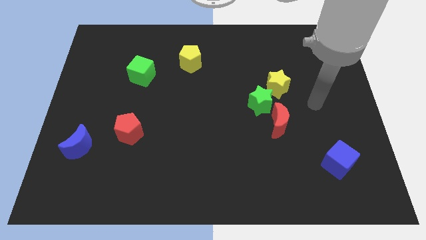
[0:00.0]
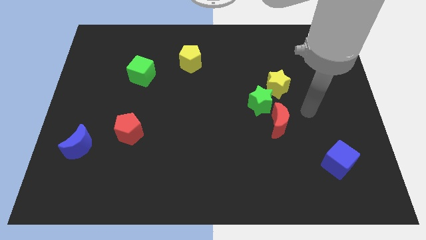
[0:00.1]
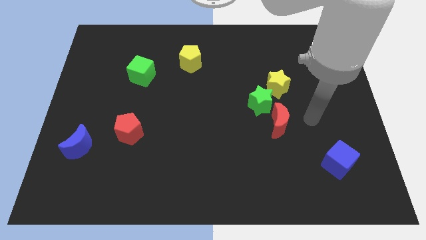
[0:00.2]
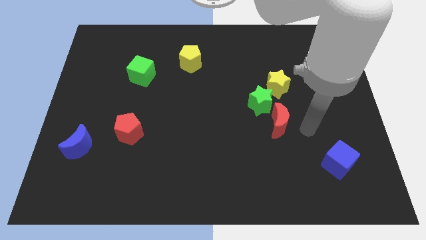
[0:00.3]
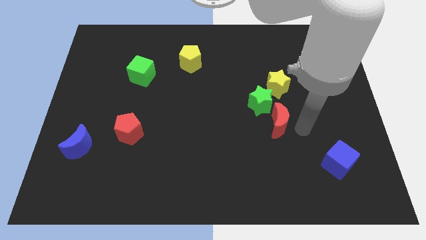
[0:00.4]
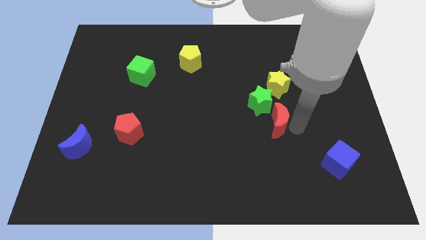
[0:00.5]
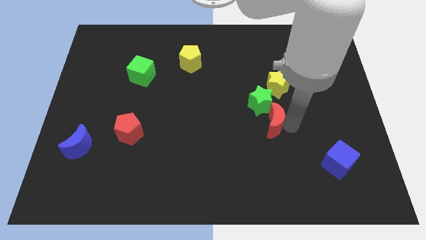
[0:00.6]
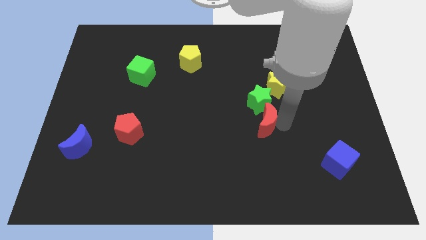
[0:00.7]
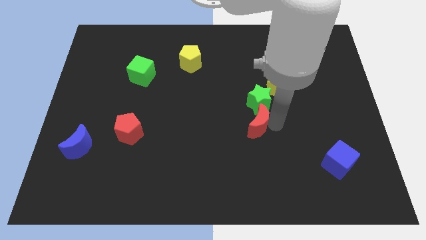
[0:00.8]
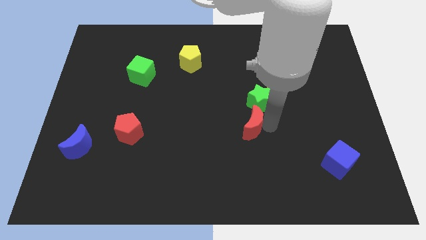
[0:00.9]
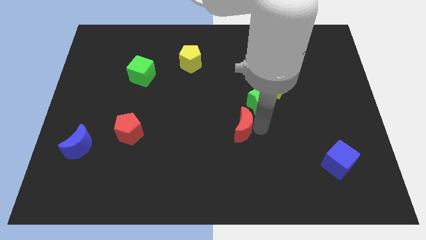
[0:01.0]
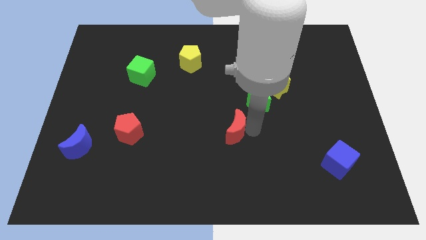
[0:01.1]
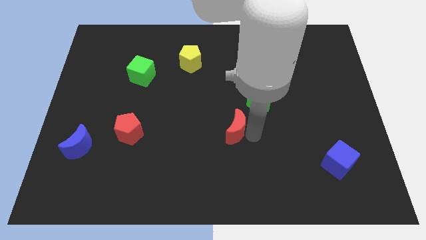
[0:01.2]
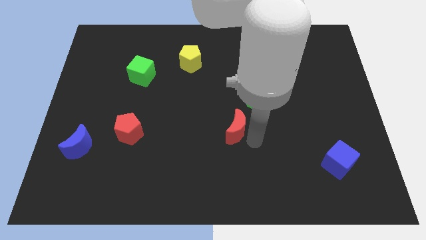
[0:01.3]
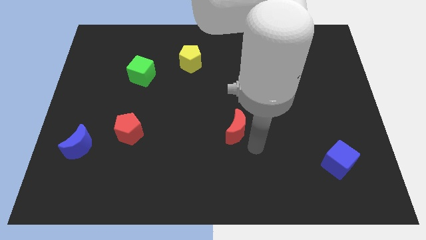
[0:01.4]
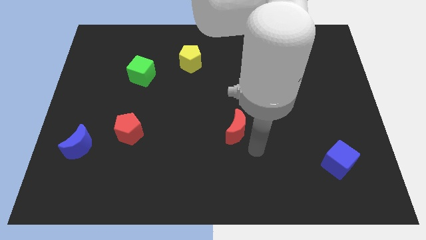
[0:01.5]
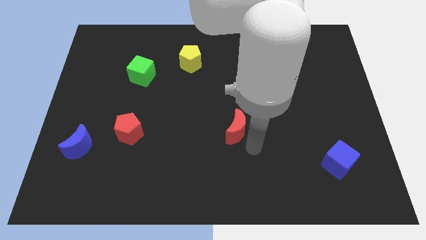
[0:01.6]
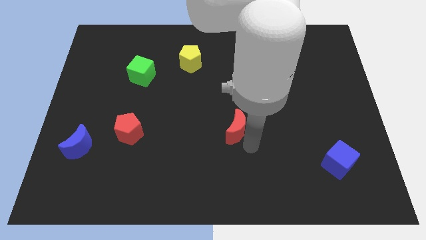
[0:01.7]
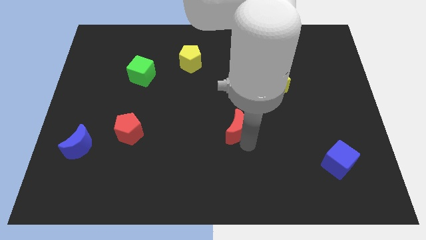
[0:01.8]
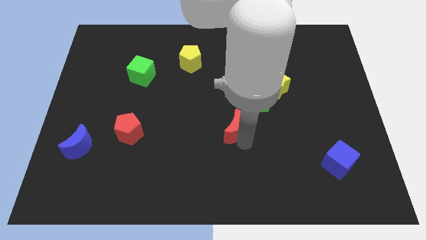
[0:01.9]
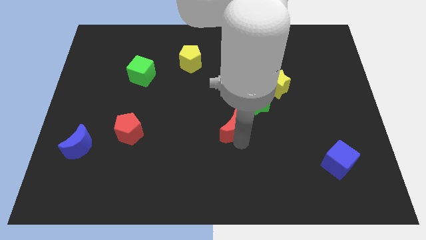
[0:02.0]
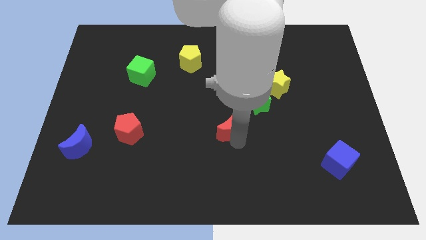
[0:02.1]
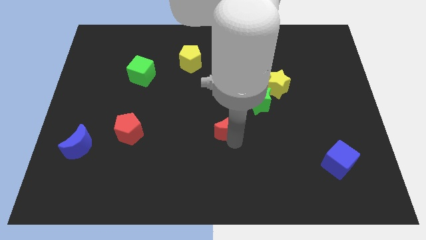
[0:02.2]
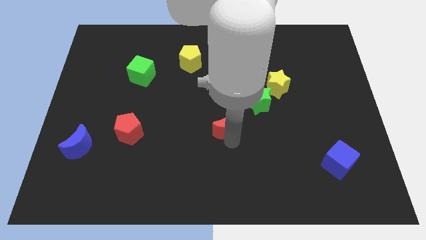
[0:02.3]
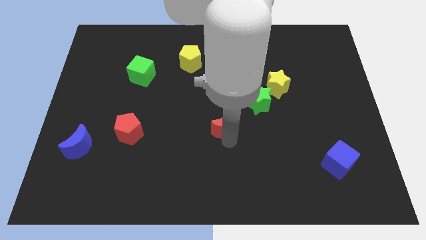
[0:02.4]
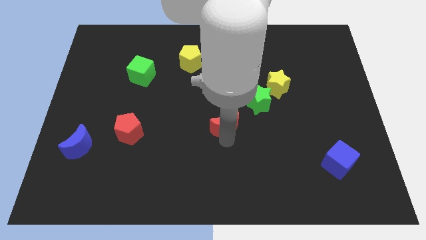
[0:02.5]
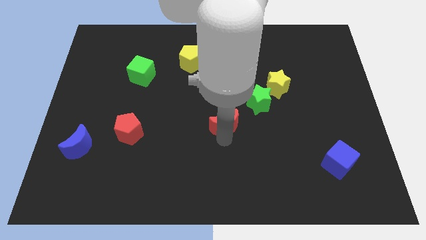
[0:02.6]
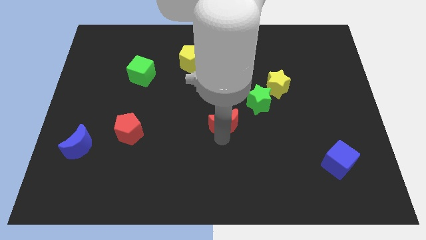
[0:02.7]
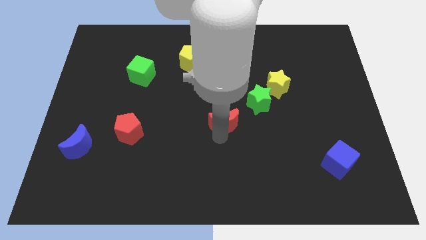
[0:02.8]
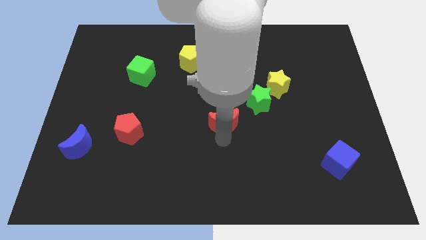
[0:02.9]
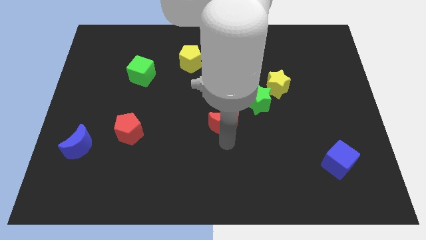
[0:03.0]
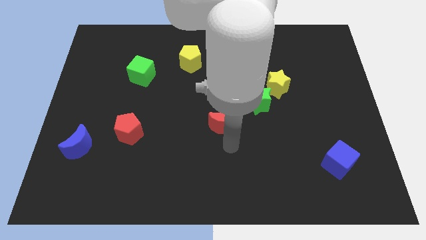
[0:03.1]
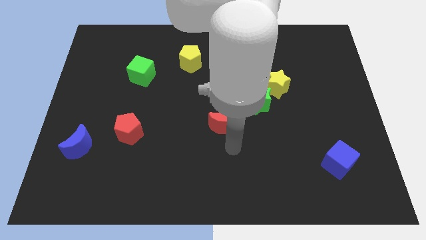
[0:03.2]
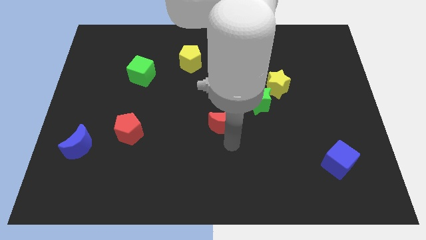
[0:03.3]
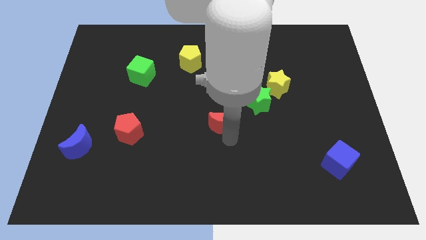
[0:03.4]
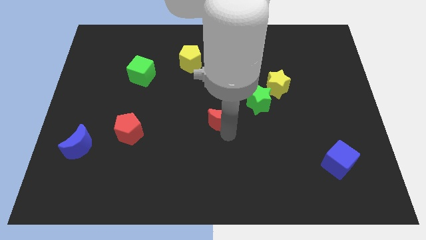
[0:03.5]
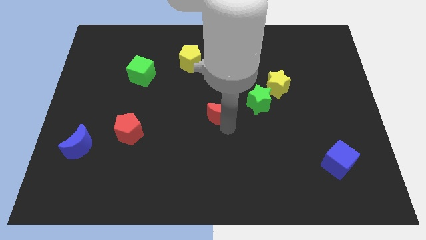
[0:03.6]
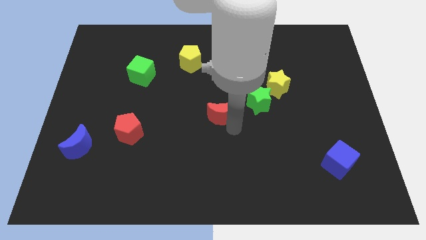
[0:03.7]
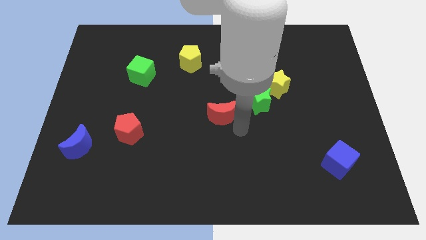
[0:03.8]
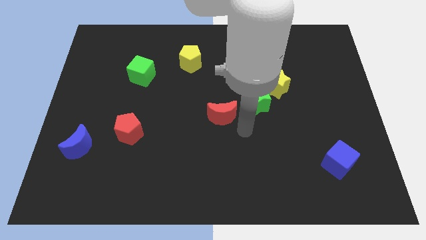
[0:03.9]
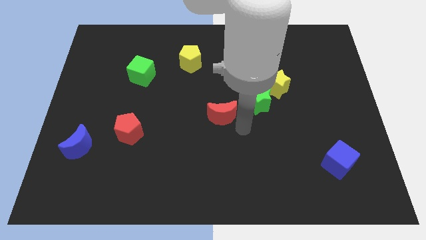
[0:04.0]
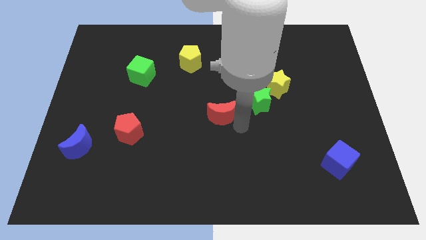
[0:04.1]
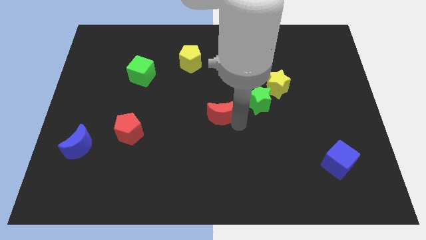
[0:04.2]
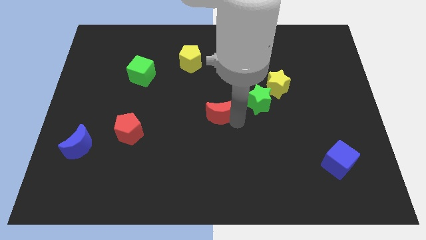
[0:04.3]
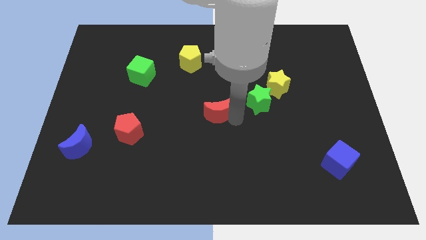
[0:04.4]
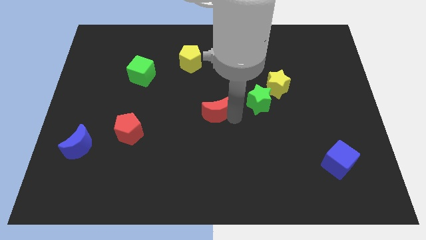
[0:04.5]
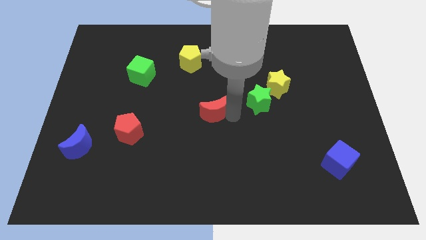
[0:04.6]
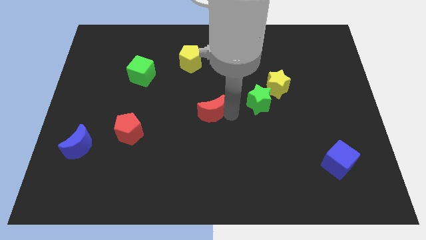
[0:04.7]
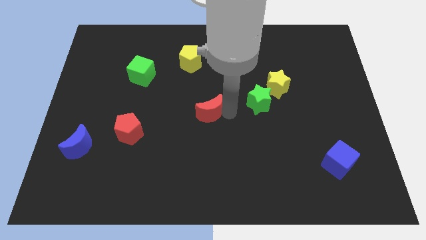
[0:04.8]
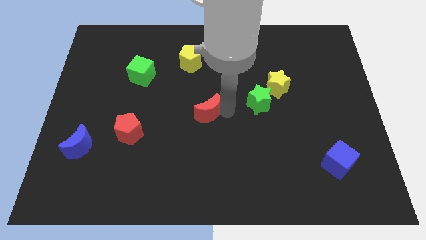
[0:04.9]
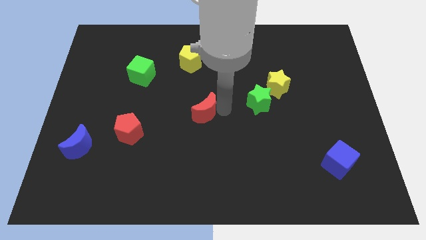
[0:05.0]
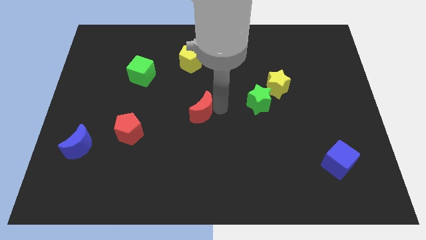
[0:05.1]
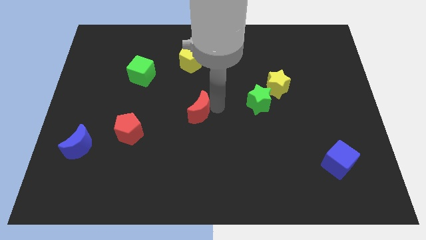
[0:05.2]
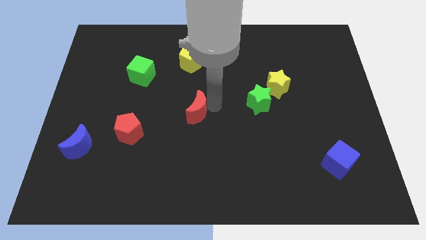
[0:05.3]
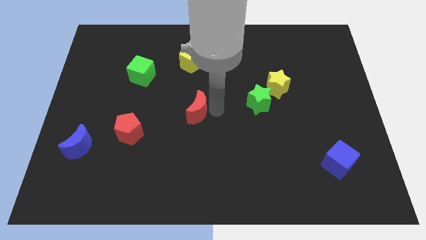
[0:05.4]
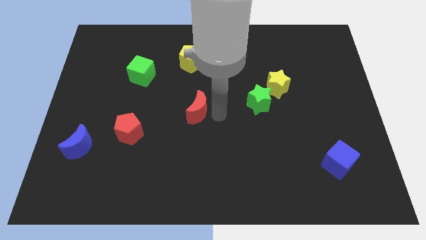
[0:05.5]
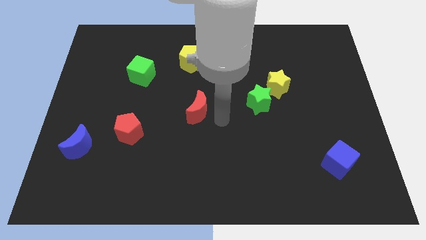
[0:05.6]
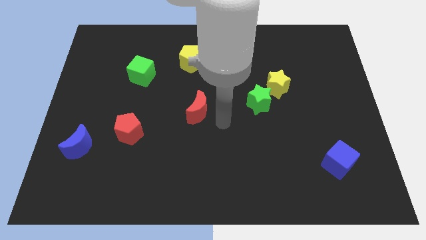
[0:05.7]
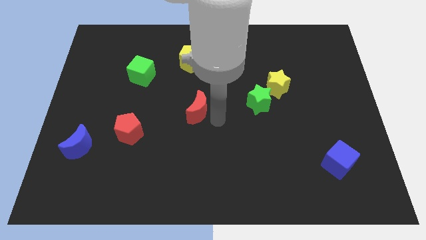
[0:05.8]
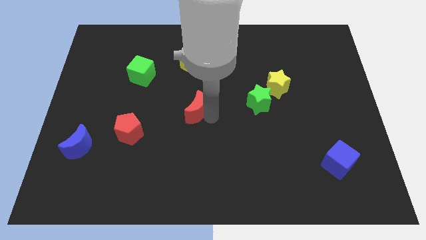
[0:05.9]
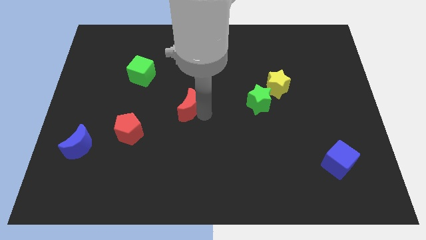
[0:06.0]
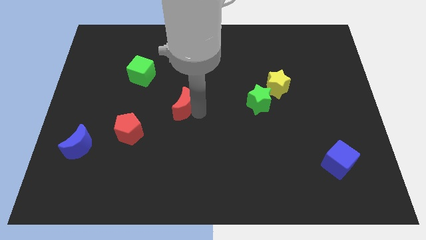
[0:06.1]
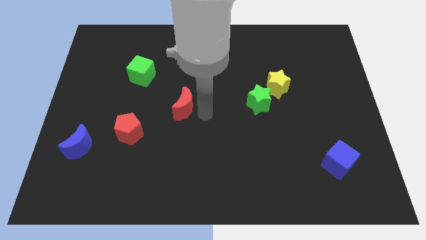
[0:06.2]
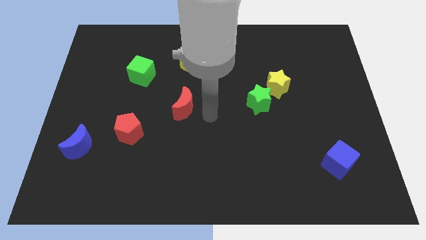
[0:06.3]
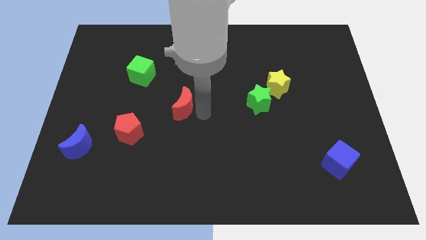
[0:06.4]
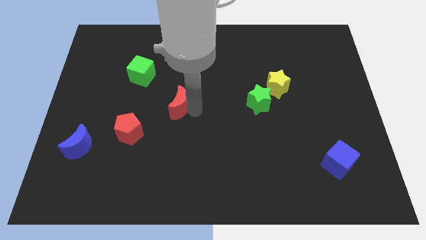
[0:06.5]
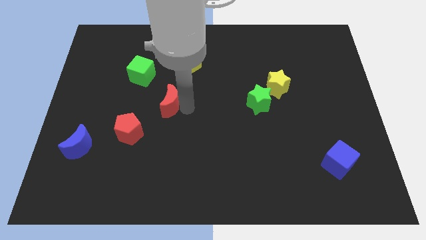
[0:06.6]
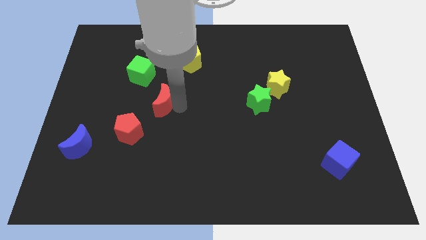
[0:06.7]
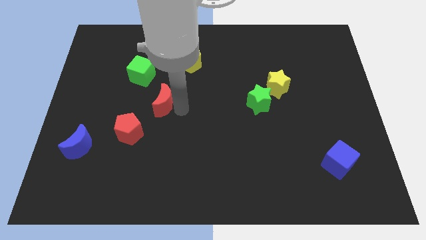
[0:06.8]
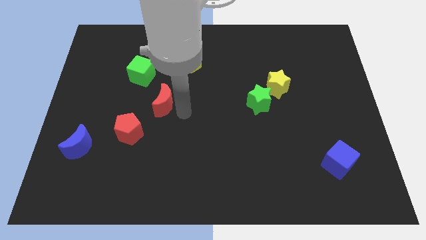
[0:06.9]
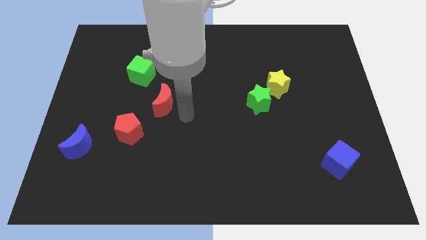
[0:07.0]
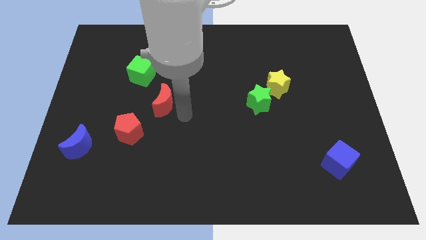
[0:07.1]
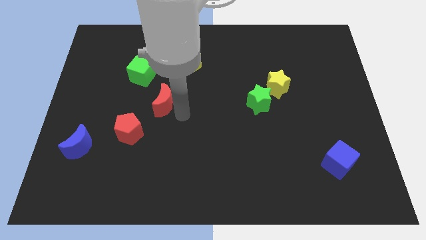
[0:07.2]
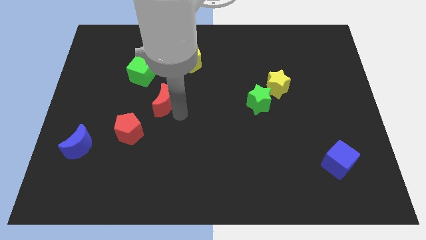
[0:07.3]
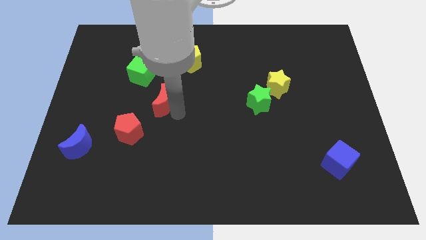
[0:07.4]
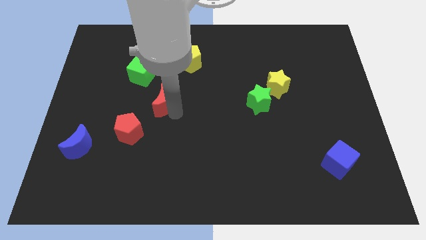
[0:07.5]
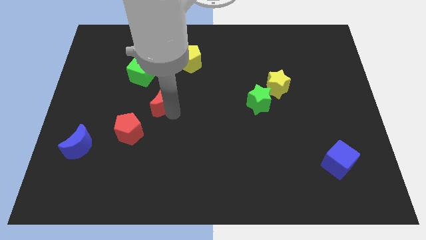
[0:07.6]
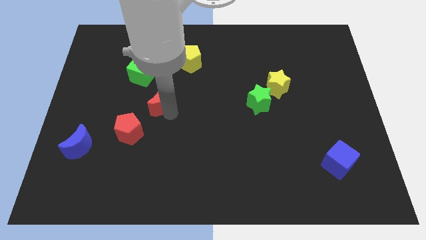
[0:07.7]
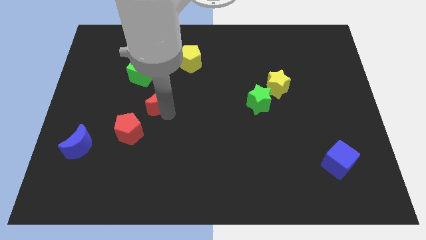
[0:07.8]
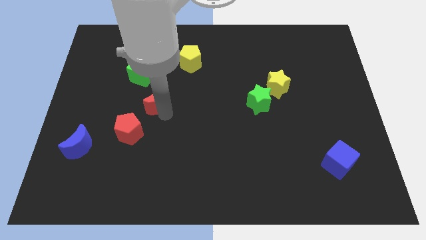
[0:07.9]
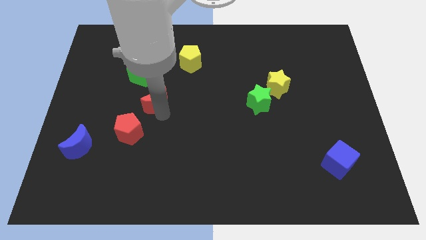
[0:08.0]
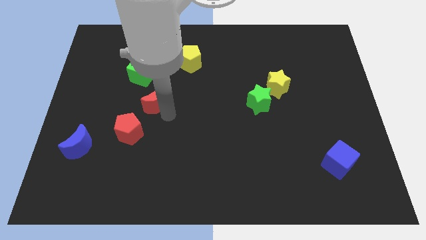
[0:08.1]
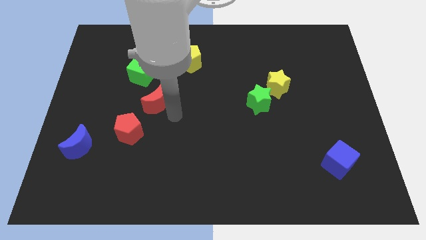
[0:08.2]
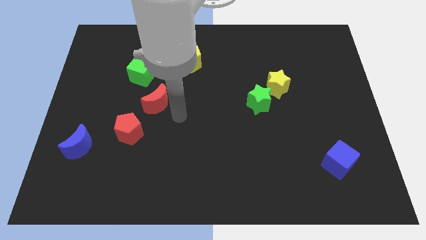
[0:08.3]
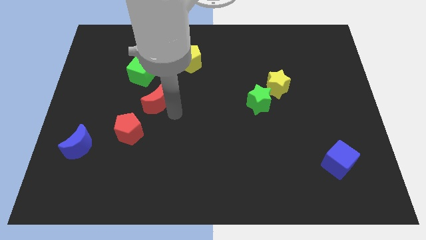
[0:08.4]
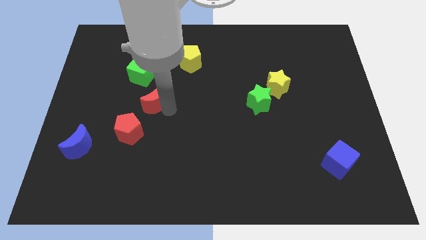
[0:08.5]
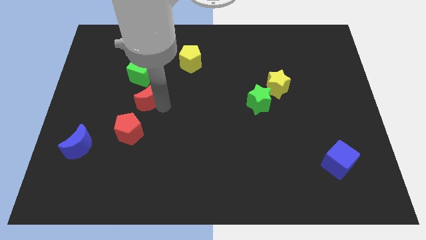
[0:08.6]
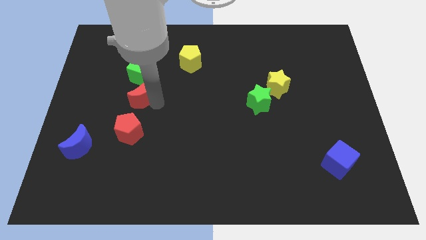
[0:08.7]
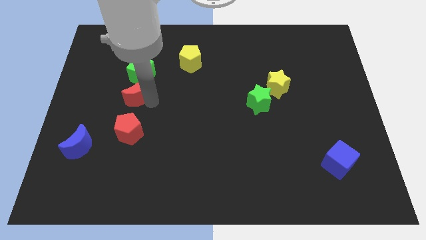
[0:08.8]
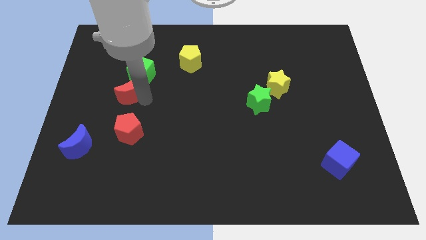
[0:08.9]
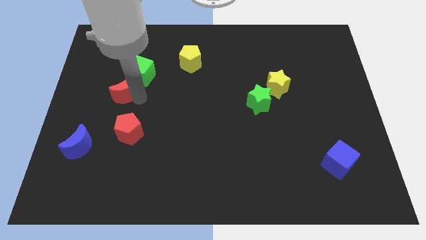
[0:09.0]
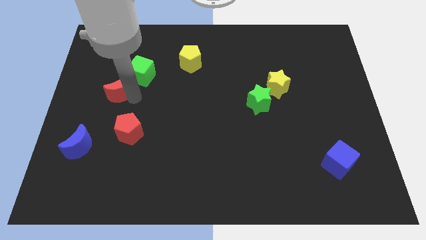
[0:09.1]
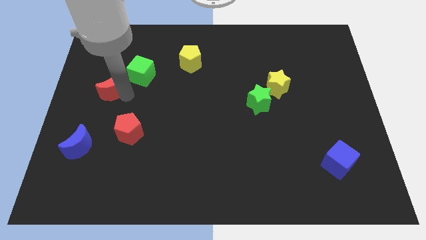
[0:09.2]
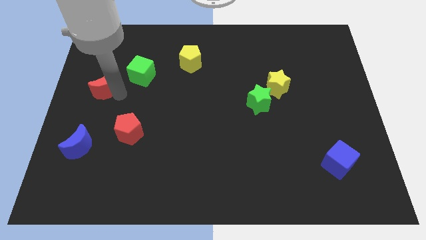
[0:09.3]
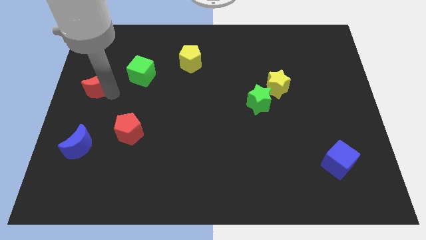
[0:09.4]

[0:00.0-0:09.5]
push the red moon just left of the green cube
